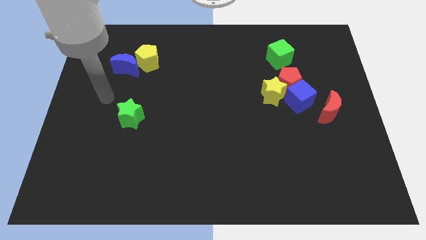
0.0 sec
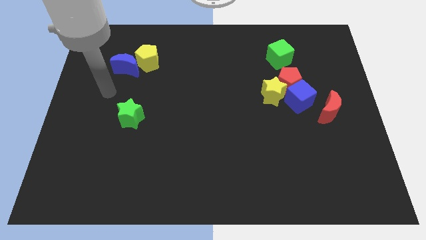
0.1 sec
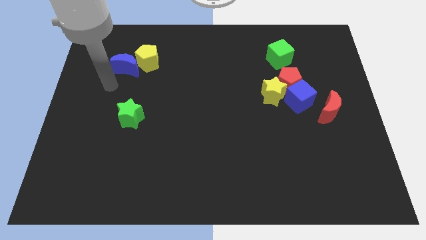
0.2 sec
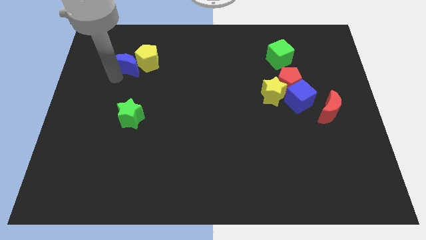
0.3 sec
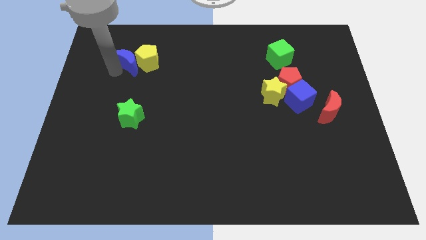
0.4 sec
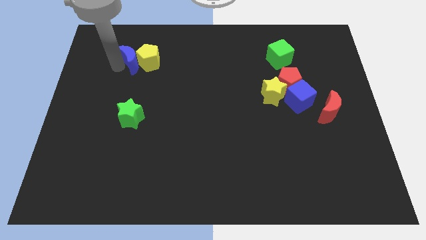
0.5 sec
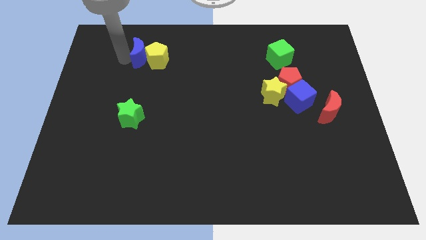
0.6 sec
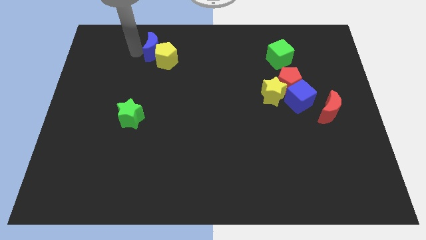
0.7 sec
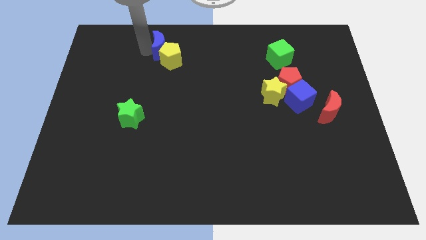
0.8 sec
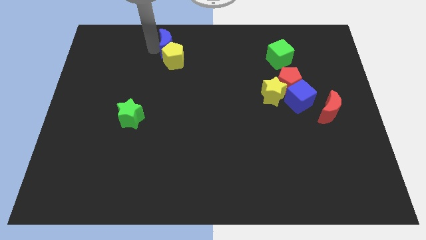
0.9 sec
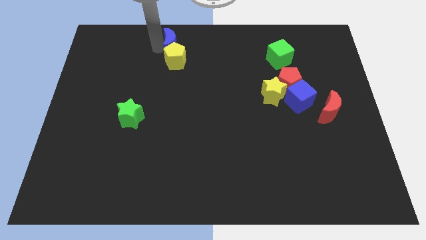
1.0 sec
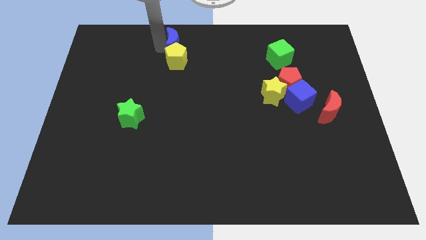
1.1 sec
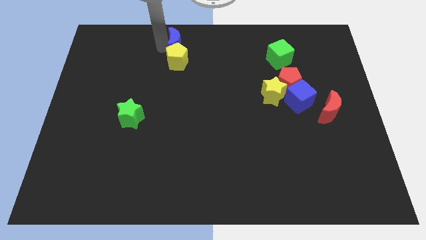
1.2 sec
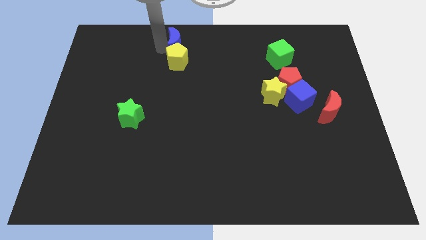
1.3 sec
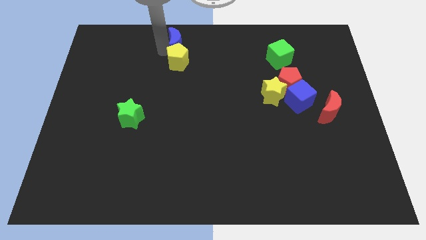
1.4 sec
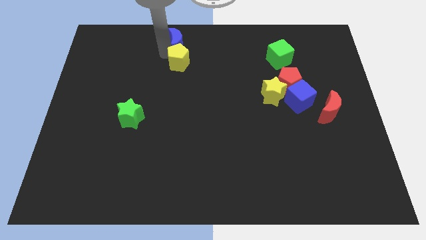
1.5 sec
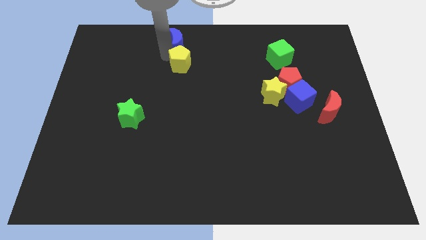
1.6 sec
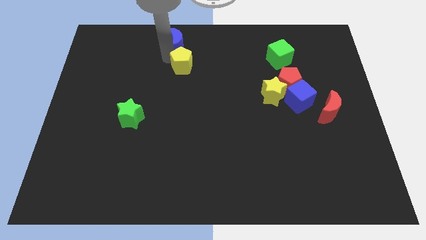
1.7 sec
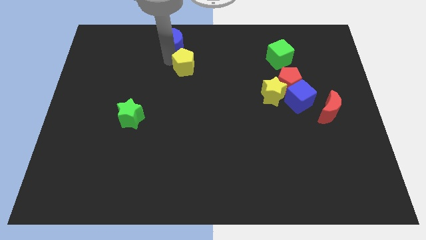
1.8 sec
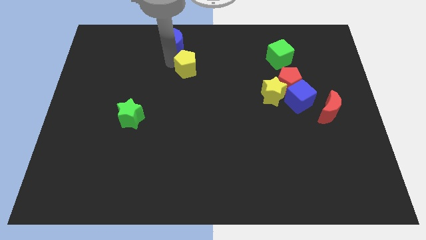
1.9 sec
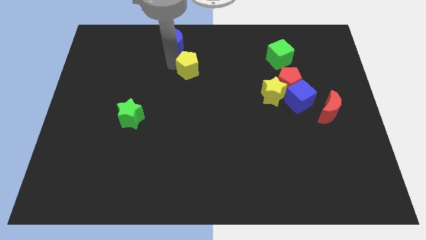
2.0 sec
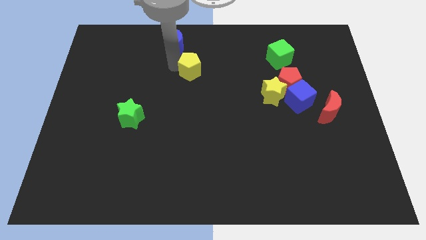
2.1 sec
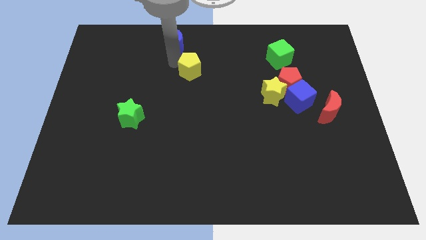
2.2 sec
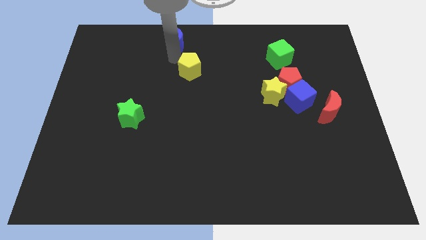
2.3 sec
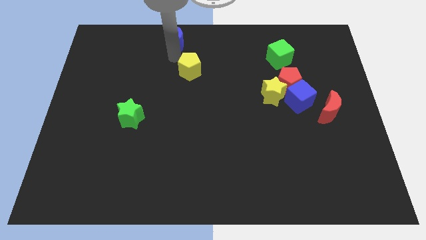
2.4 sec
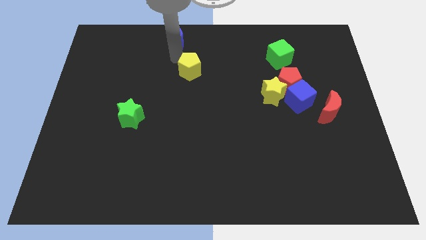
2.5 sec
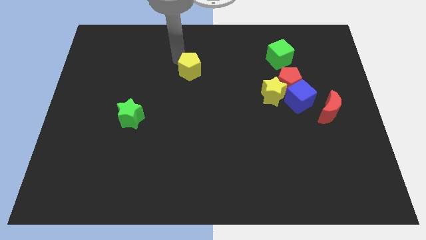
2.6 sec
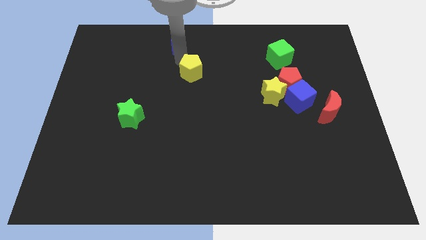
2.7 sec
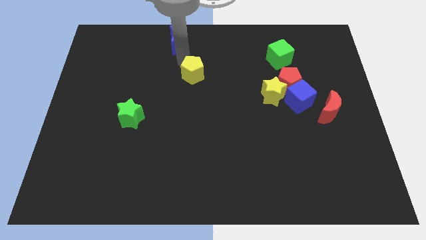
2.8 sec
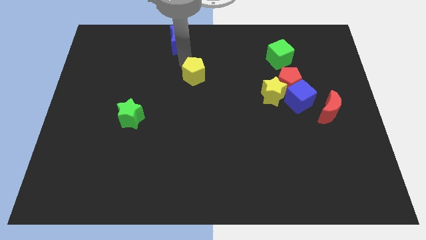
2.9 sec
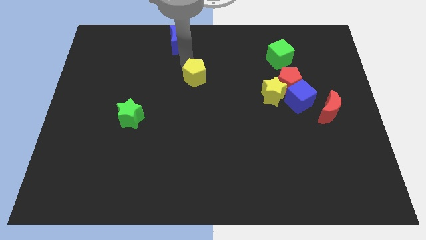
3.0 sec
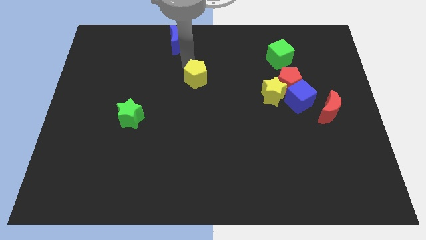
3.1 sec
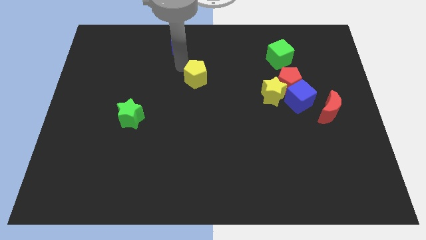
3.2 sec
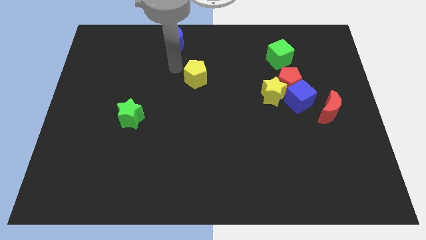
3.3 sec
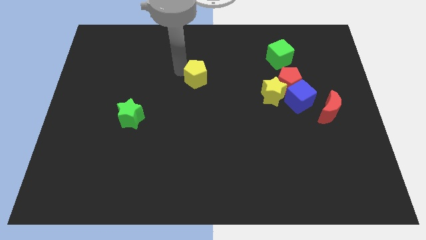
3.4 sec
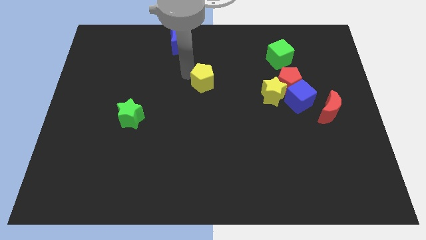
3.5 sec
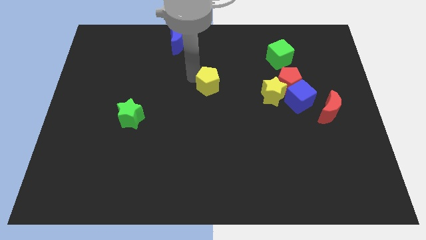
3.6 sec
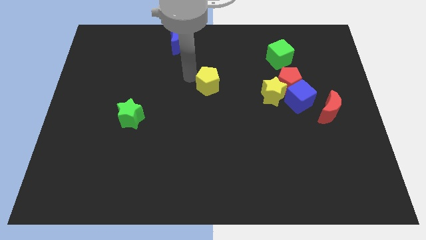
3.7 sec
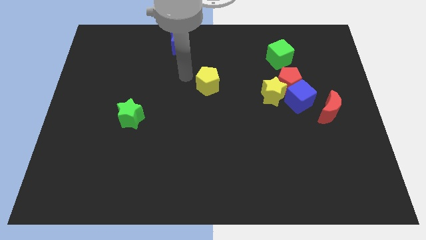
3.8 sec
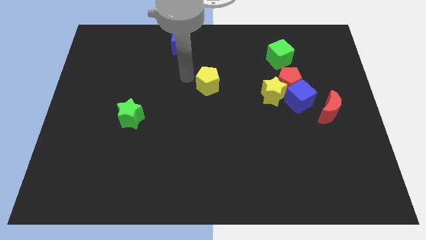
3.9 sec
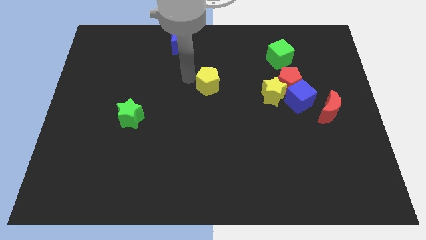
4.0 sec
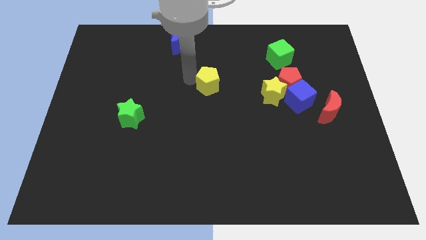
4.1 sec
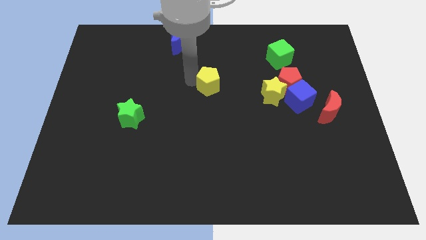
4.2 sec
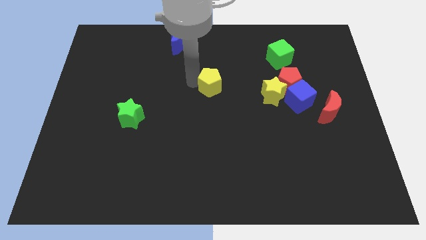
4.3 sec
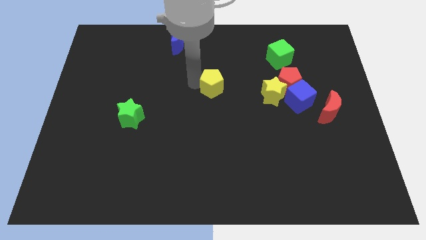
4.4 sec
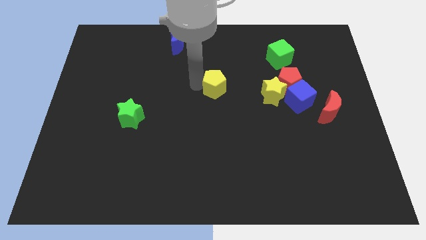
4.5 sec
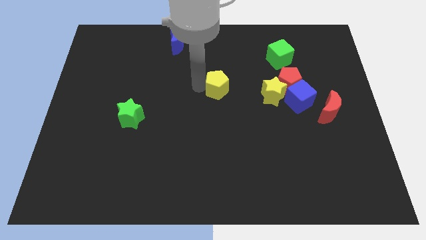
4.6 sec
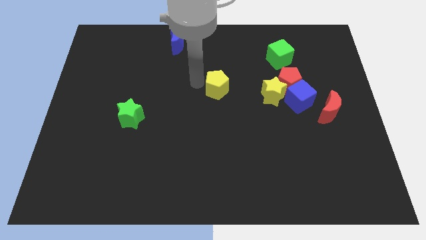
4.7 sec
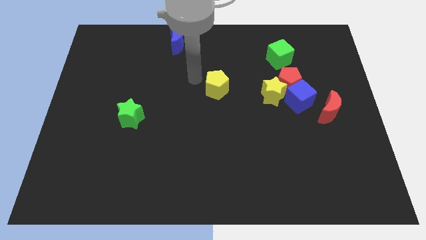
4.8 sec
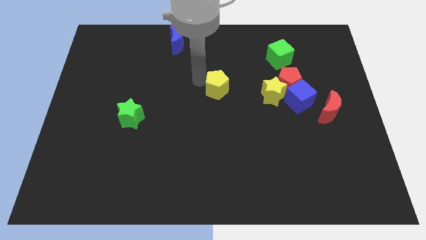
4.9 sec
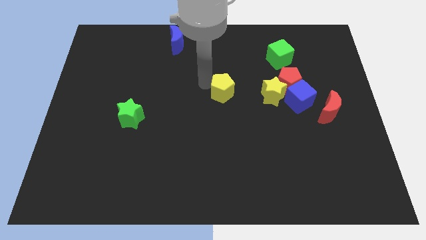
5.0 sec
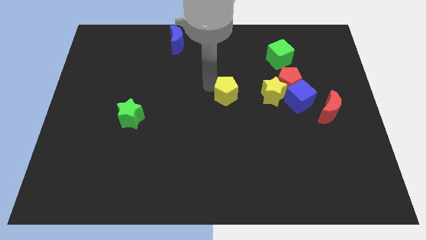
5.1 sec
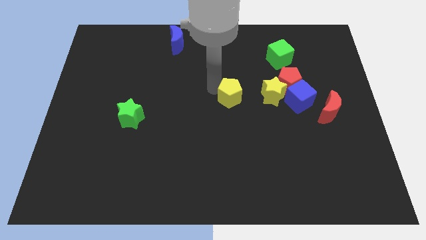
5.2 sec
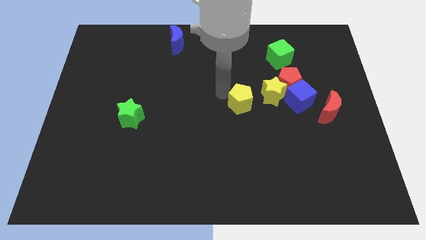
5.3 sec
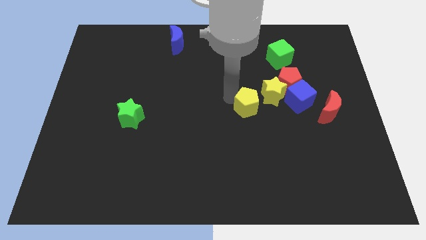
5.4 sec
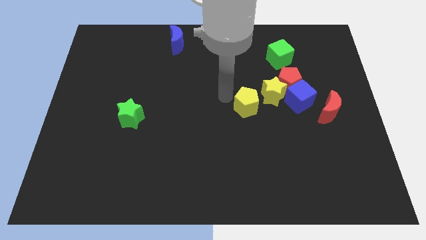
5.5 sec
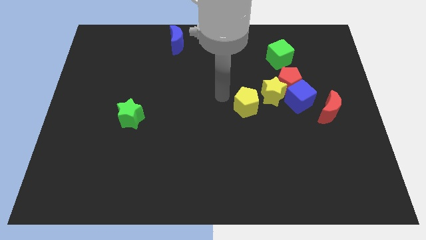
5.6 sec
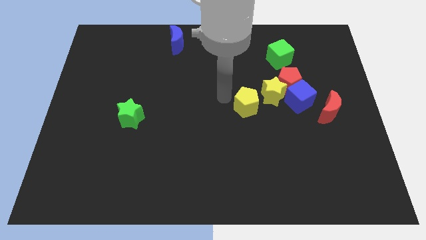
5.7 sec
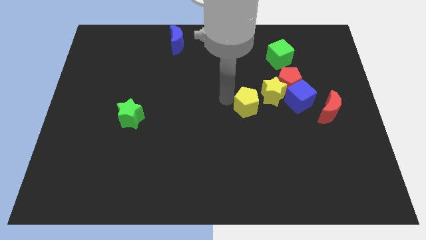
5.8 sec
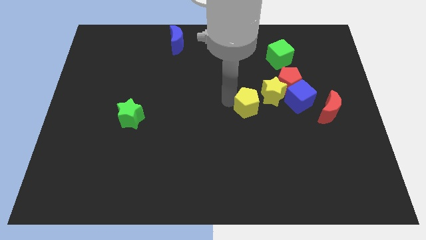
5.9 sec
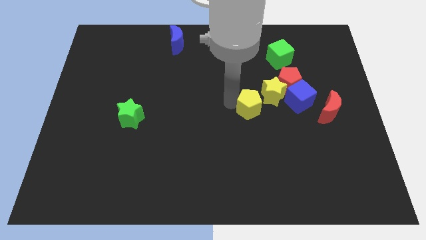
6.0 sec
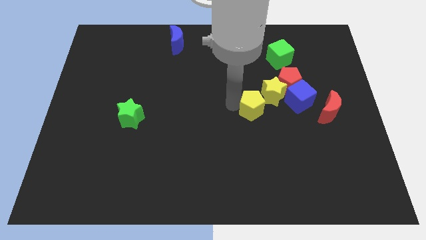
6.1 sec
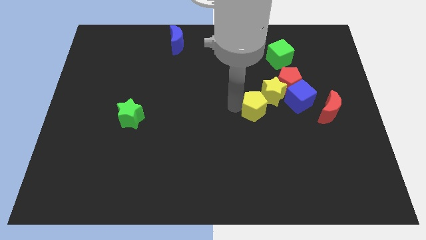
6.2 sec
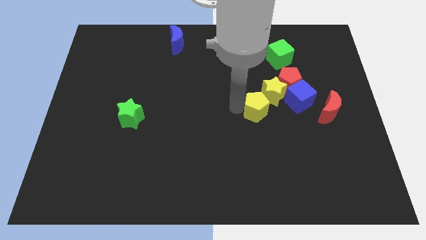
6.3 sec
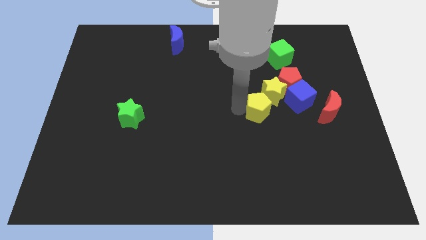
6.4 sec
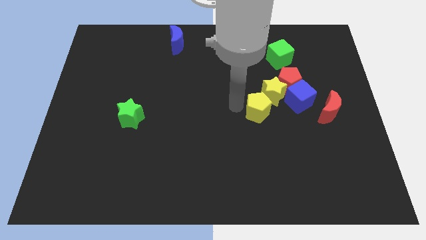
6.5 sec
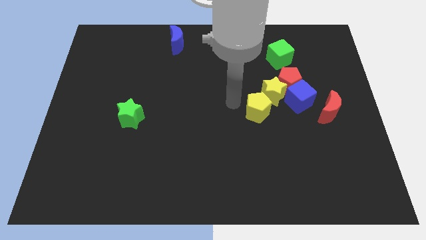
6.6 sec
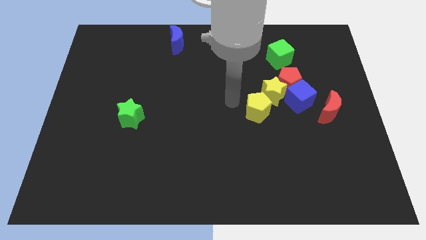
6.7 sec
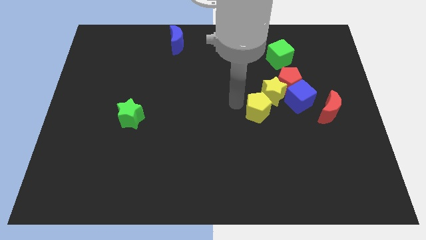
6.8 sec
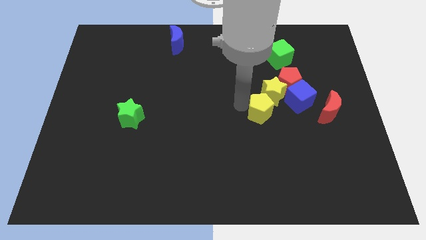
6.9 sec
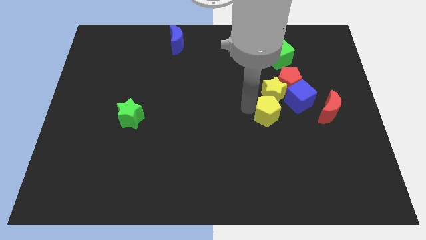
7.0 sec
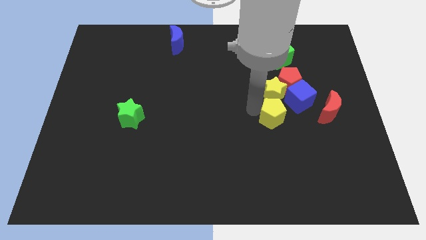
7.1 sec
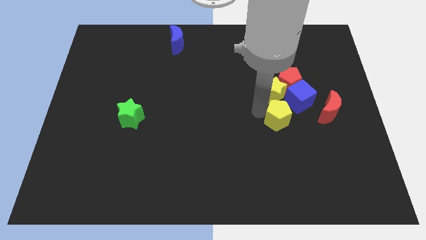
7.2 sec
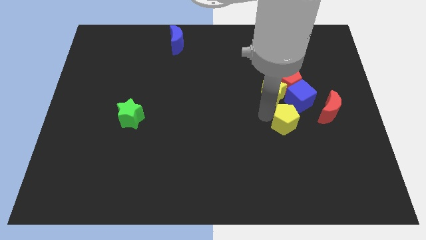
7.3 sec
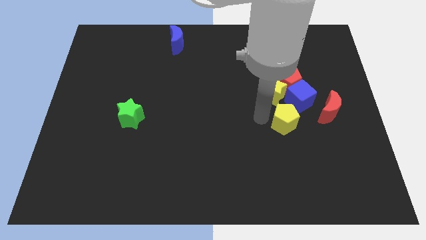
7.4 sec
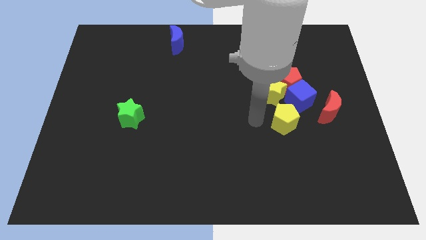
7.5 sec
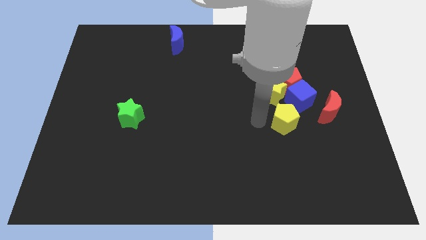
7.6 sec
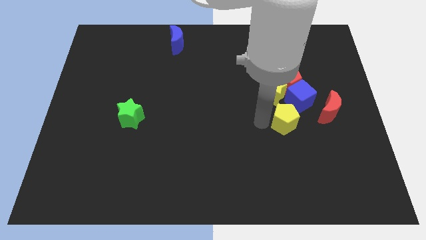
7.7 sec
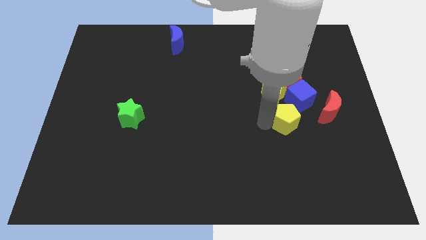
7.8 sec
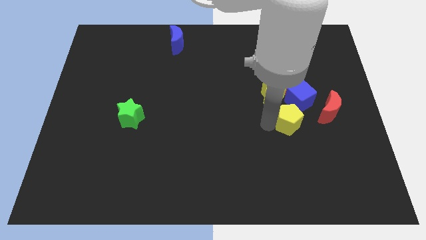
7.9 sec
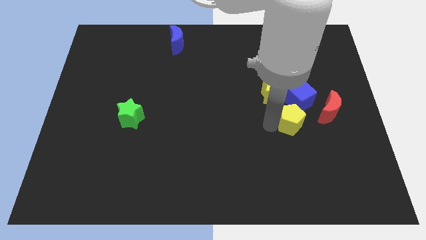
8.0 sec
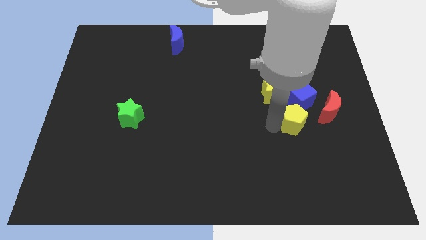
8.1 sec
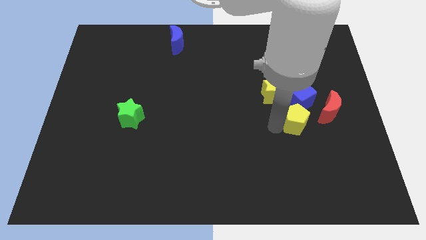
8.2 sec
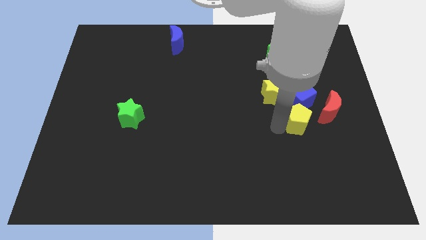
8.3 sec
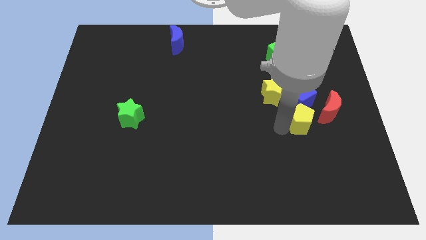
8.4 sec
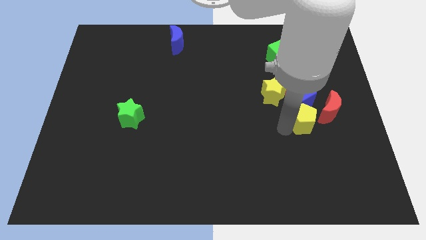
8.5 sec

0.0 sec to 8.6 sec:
push the yellow pentagon diagonally down and to the right of the blue cube
